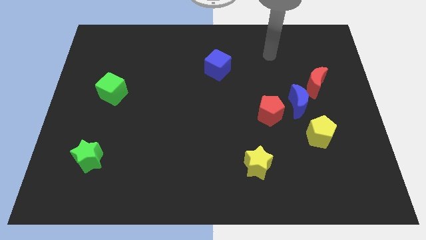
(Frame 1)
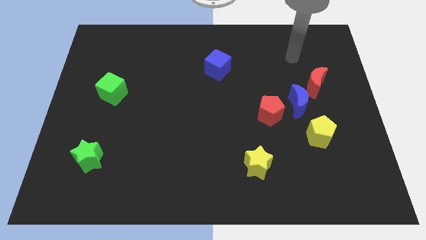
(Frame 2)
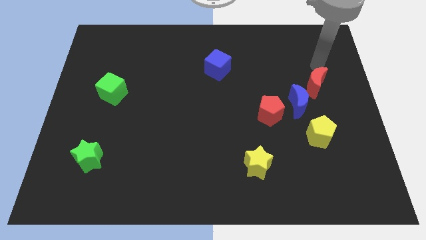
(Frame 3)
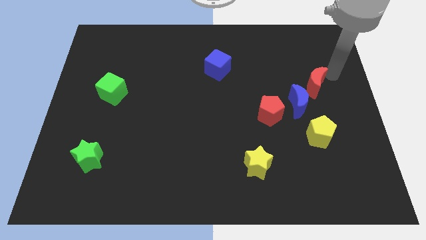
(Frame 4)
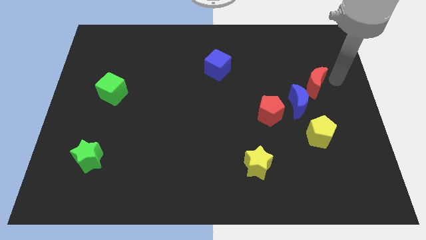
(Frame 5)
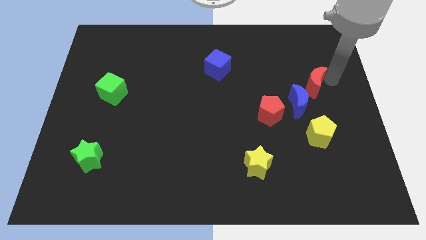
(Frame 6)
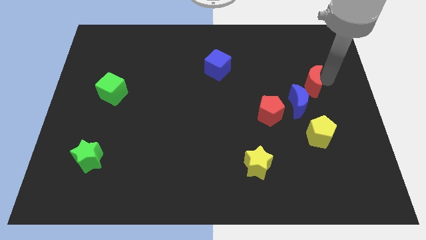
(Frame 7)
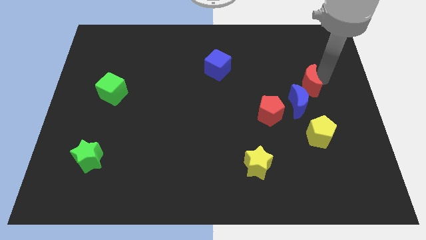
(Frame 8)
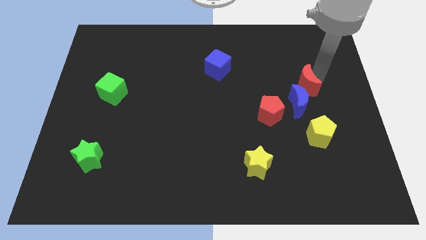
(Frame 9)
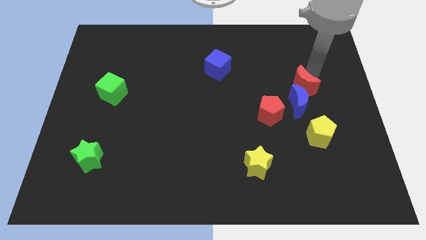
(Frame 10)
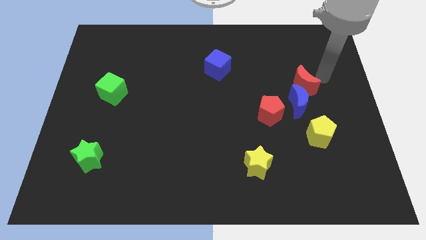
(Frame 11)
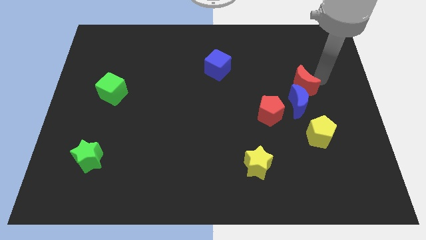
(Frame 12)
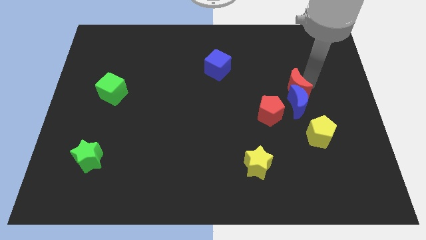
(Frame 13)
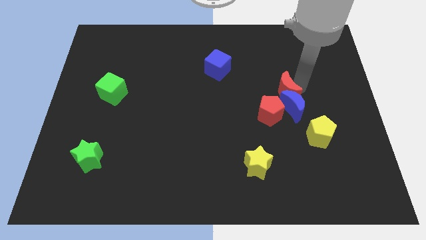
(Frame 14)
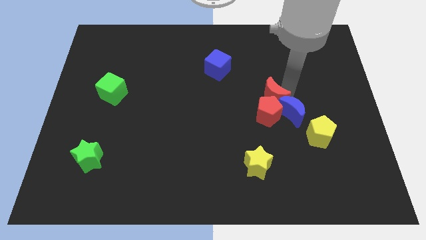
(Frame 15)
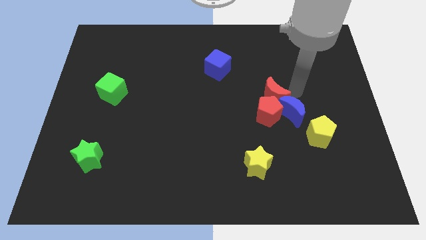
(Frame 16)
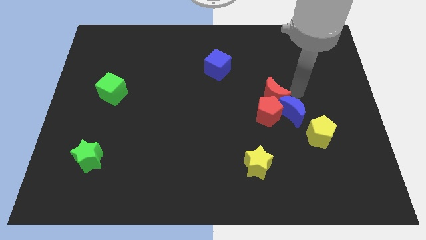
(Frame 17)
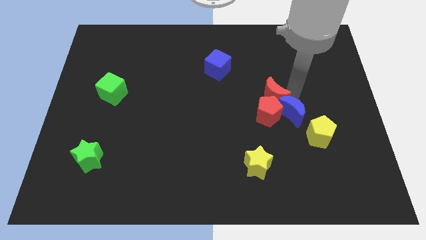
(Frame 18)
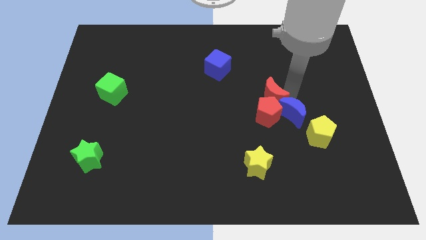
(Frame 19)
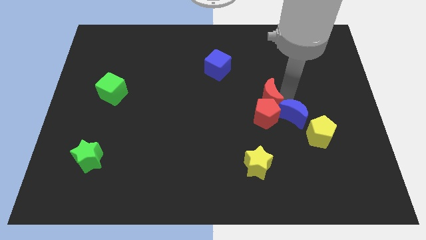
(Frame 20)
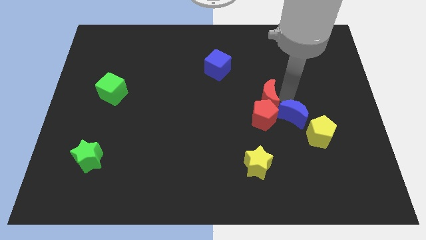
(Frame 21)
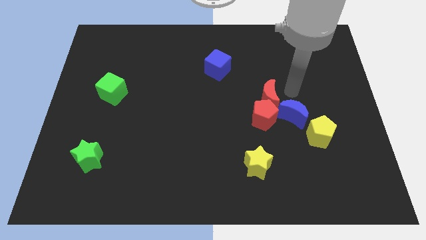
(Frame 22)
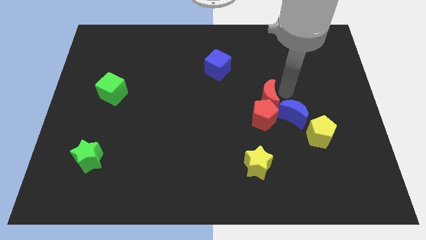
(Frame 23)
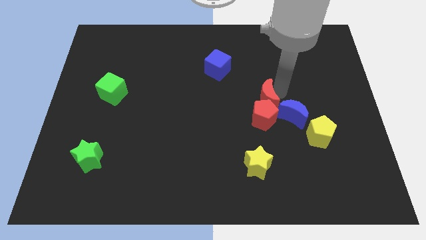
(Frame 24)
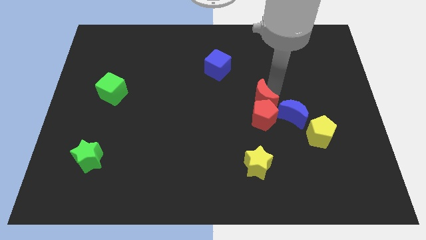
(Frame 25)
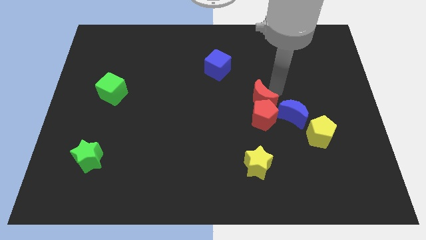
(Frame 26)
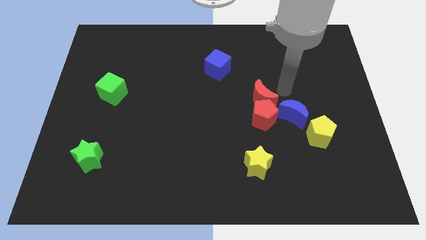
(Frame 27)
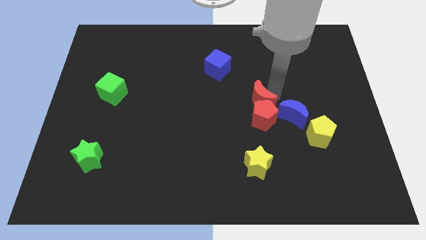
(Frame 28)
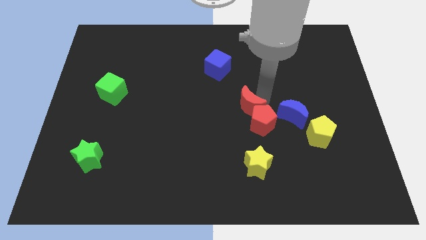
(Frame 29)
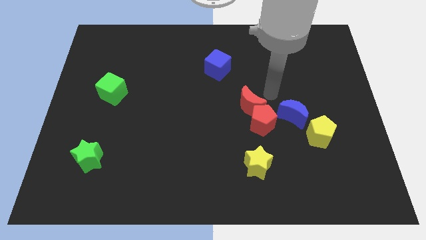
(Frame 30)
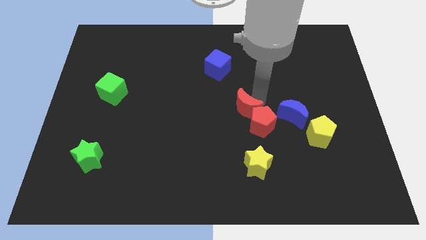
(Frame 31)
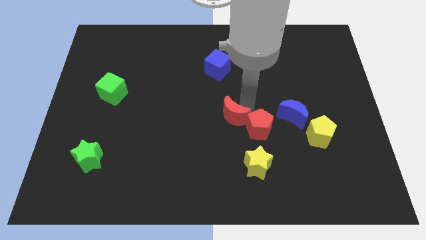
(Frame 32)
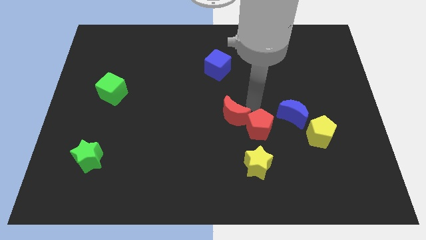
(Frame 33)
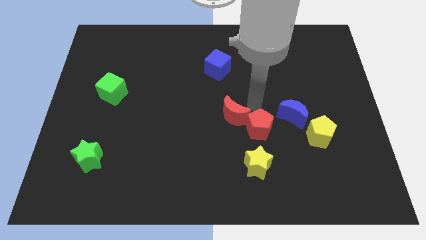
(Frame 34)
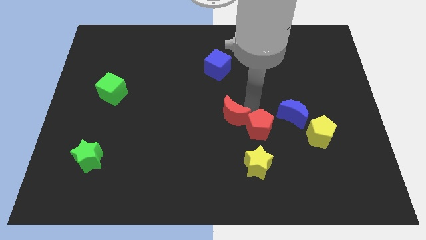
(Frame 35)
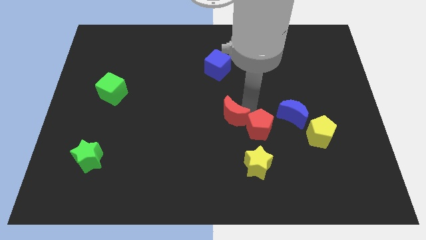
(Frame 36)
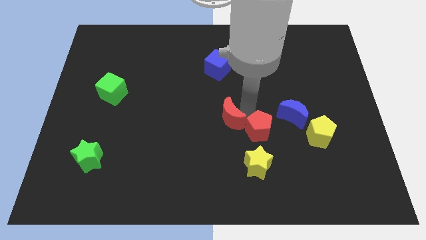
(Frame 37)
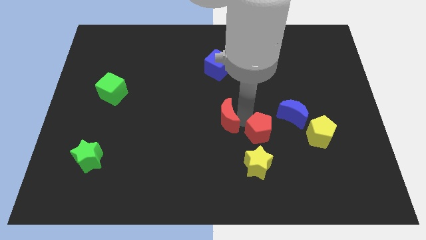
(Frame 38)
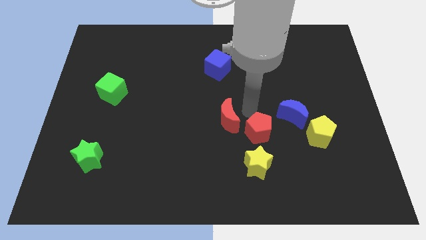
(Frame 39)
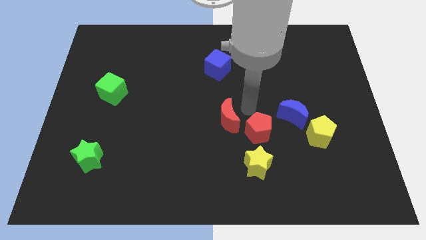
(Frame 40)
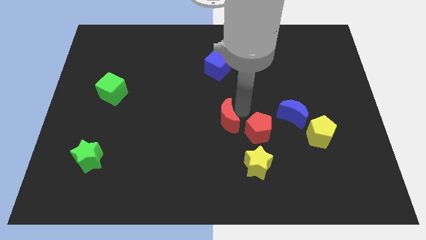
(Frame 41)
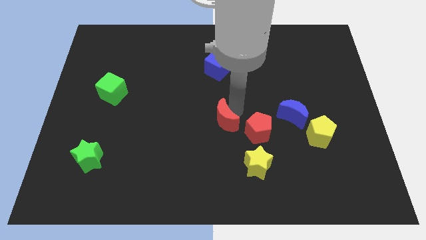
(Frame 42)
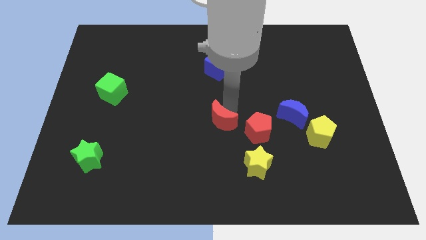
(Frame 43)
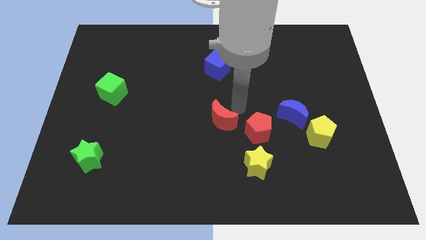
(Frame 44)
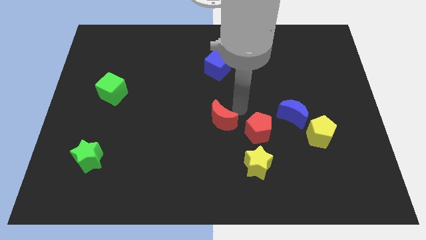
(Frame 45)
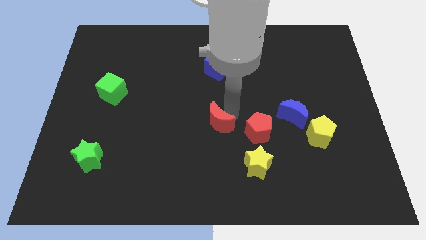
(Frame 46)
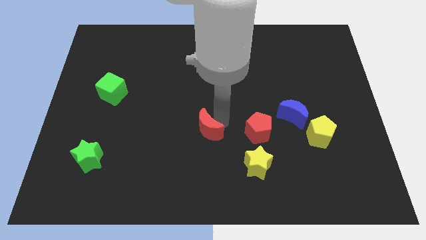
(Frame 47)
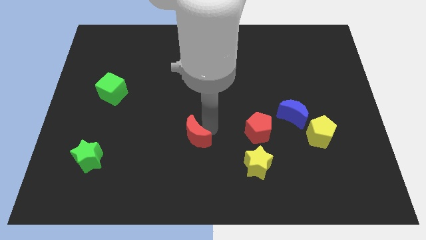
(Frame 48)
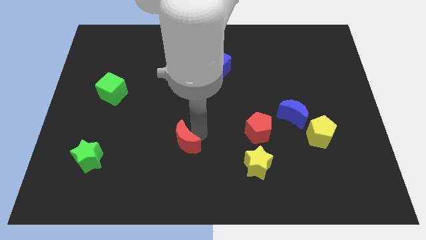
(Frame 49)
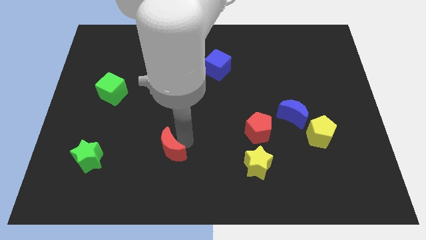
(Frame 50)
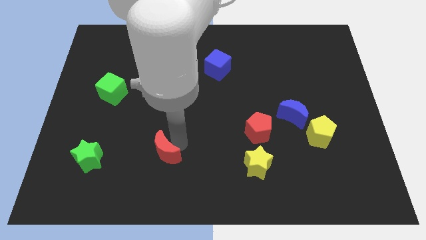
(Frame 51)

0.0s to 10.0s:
move the red moon to the right side of the green star

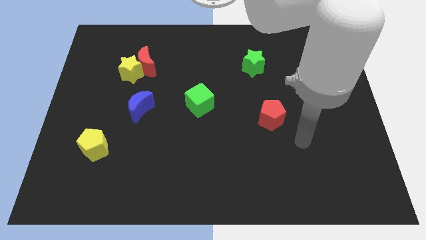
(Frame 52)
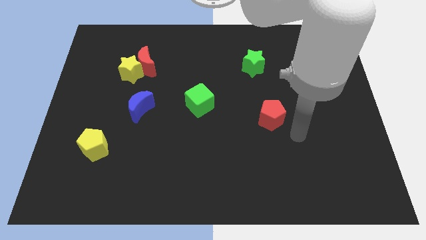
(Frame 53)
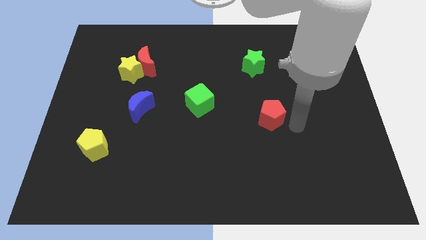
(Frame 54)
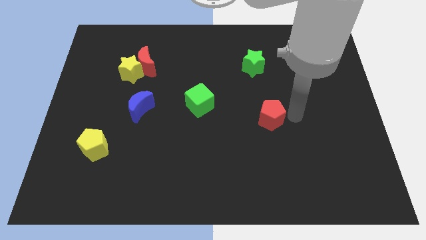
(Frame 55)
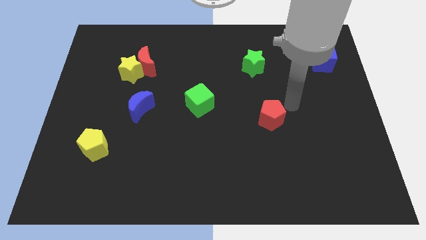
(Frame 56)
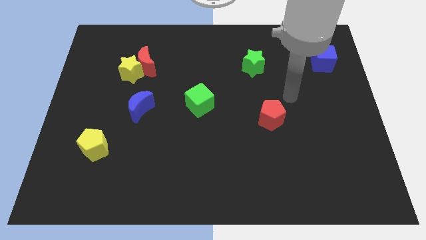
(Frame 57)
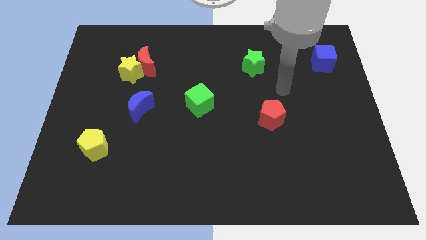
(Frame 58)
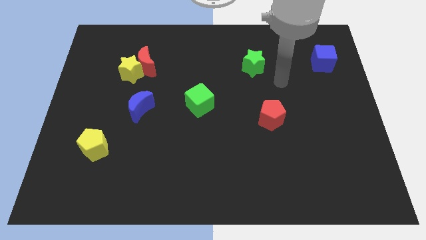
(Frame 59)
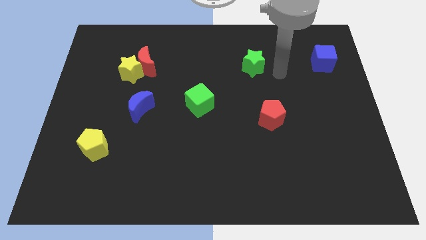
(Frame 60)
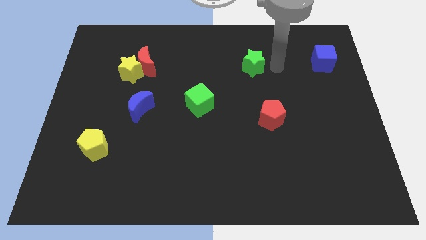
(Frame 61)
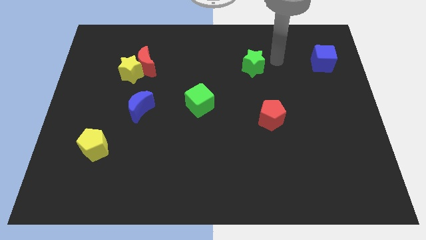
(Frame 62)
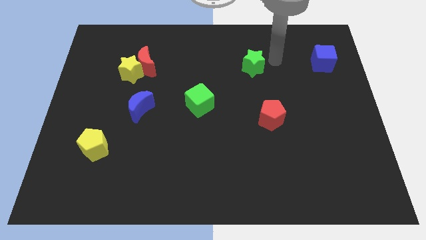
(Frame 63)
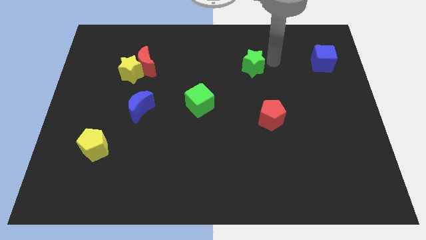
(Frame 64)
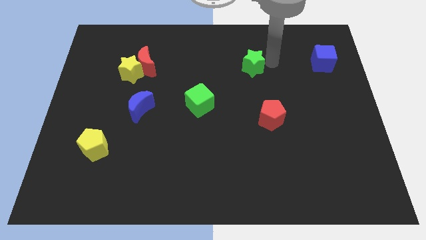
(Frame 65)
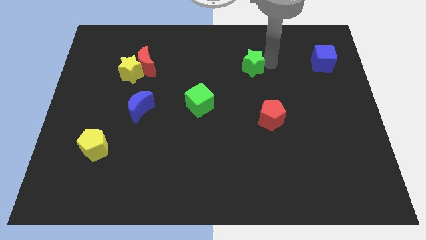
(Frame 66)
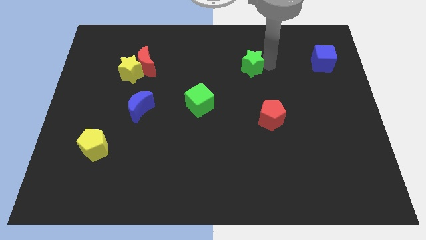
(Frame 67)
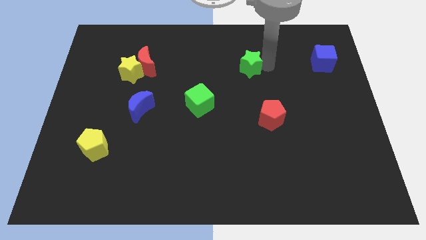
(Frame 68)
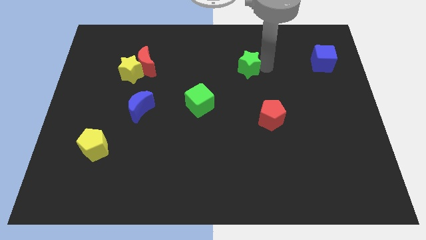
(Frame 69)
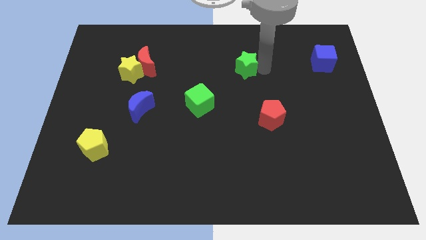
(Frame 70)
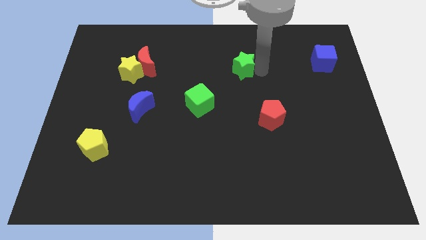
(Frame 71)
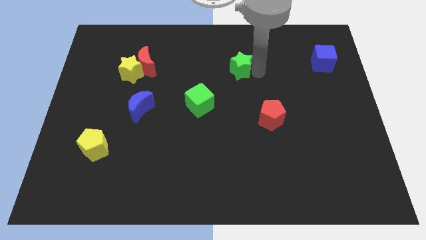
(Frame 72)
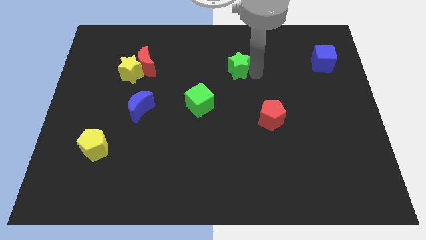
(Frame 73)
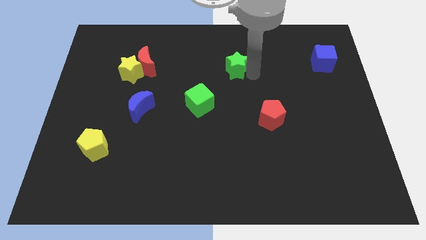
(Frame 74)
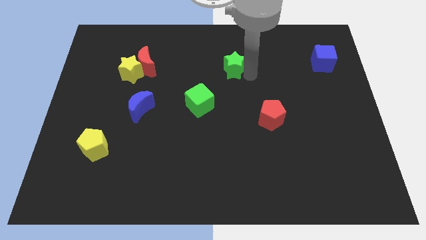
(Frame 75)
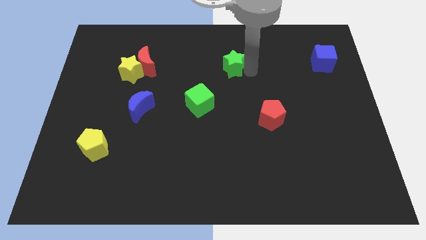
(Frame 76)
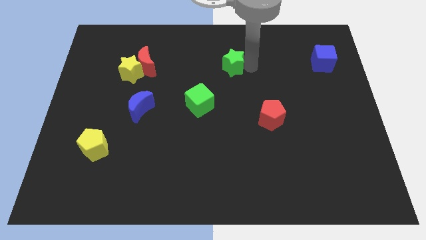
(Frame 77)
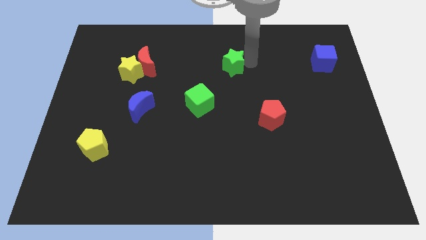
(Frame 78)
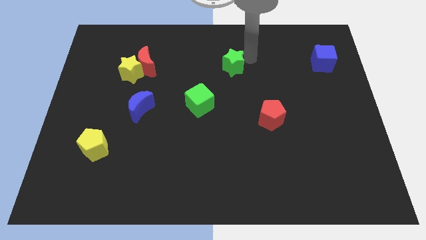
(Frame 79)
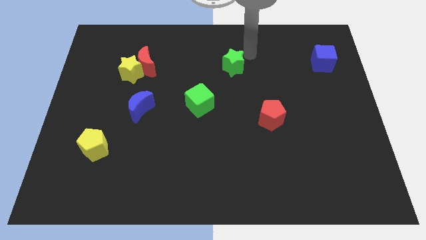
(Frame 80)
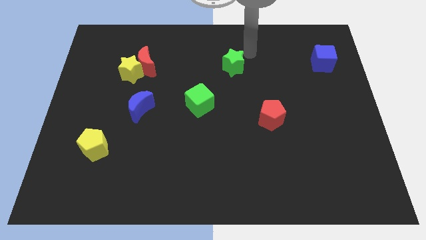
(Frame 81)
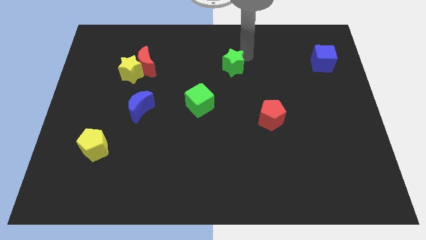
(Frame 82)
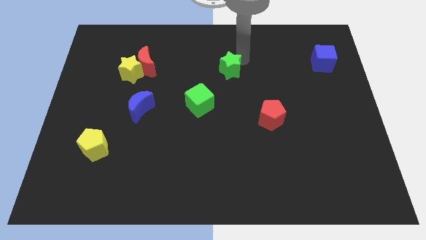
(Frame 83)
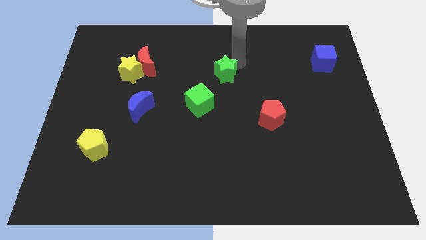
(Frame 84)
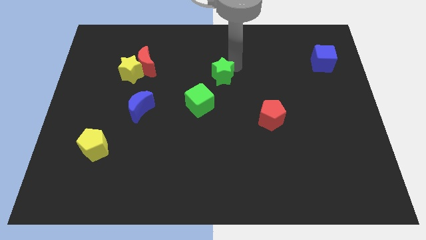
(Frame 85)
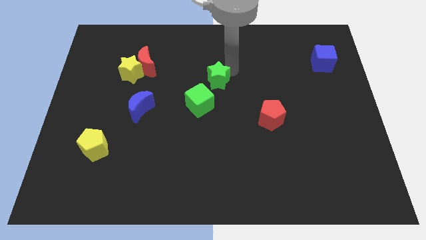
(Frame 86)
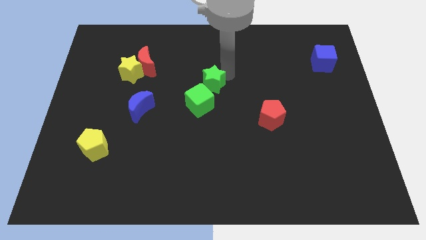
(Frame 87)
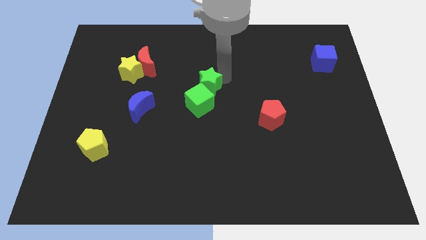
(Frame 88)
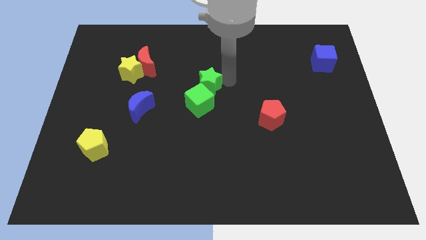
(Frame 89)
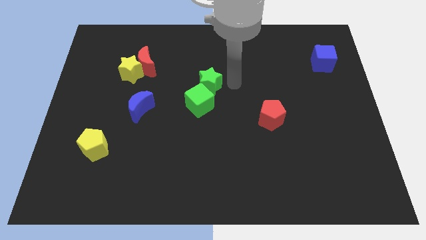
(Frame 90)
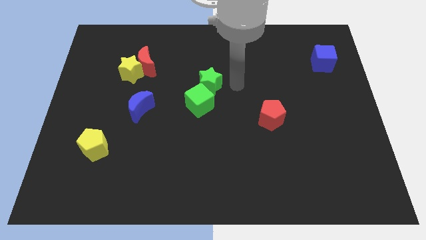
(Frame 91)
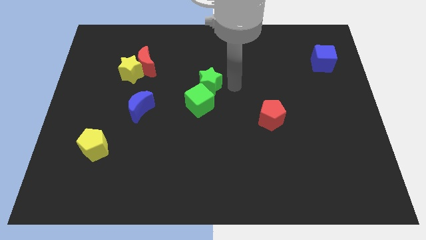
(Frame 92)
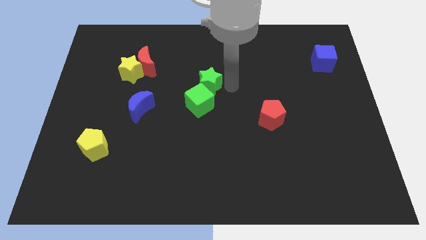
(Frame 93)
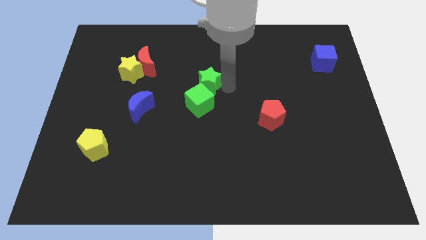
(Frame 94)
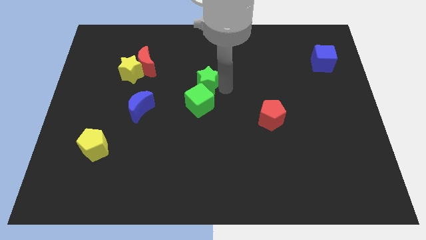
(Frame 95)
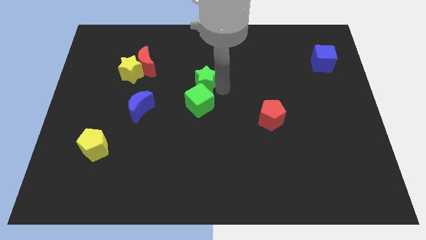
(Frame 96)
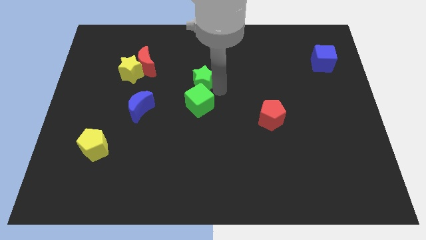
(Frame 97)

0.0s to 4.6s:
put the green star to the top left side of the green cube
